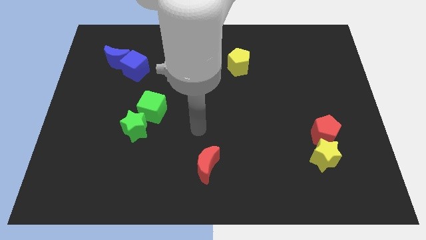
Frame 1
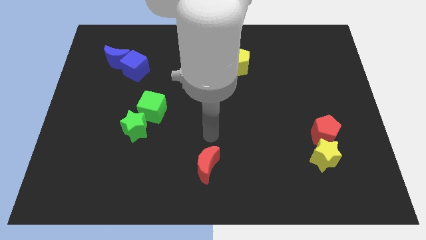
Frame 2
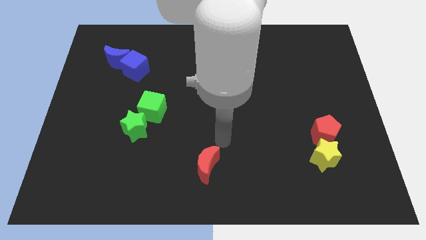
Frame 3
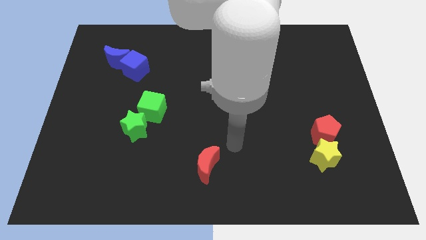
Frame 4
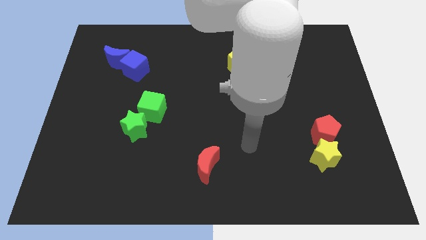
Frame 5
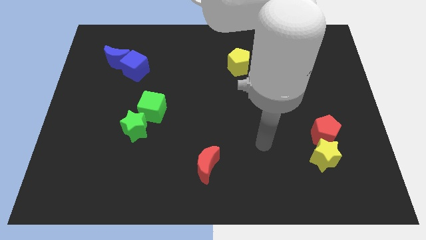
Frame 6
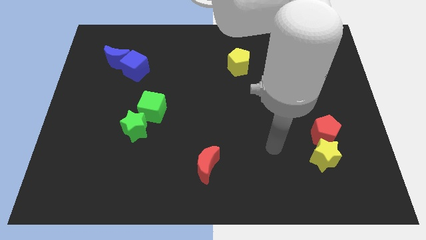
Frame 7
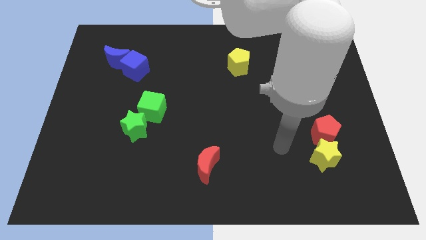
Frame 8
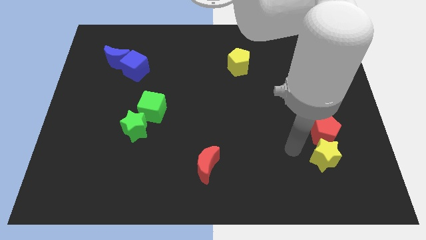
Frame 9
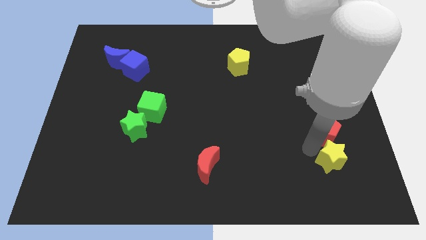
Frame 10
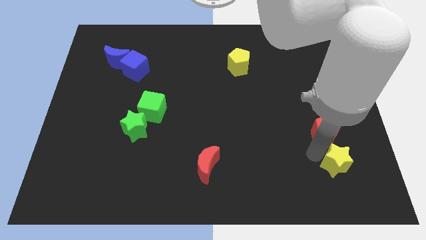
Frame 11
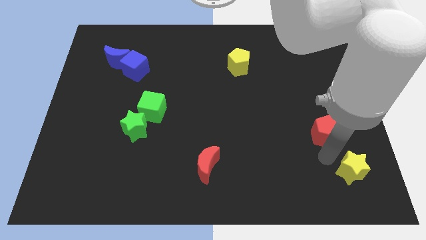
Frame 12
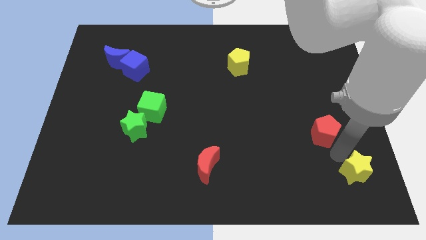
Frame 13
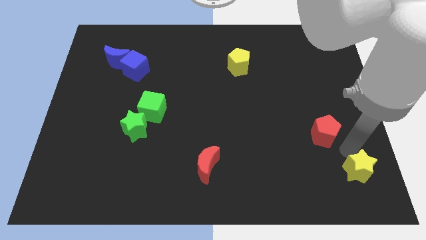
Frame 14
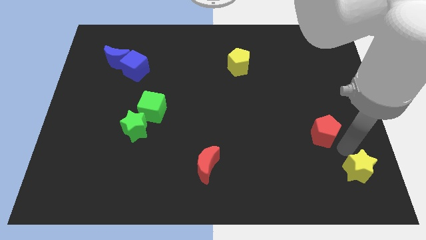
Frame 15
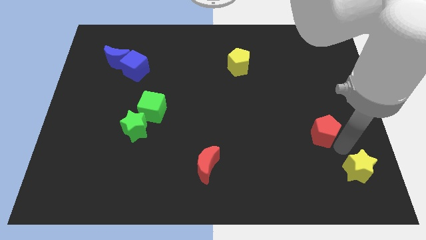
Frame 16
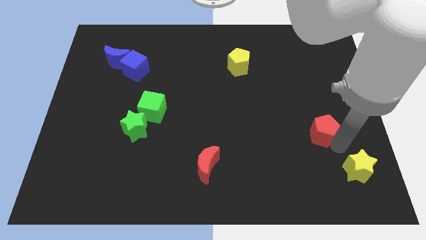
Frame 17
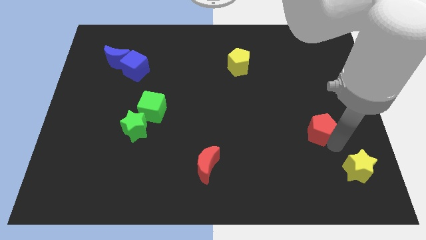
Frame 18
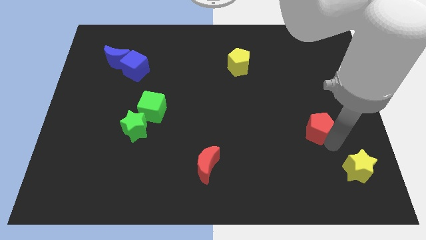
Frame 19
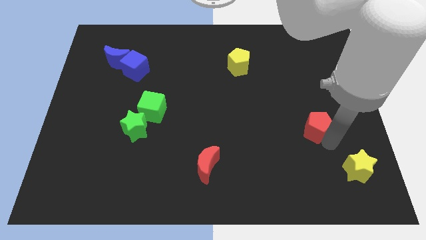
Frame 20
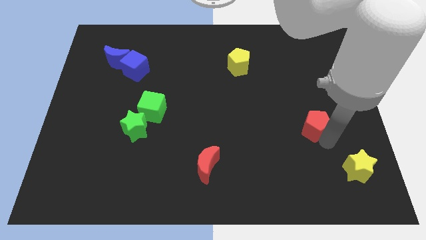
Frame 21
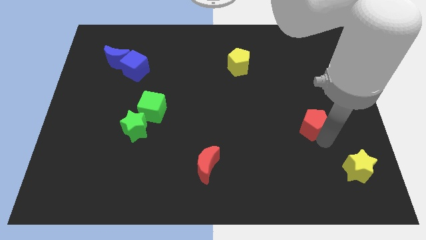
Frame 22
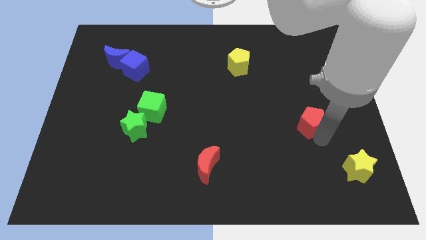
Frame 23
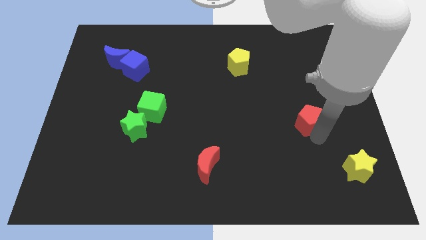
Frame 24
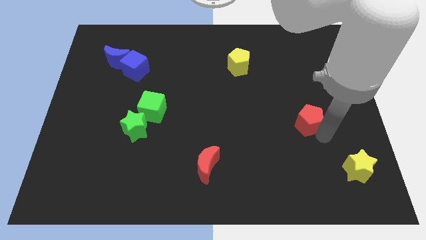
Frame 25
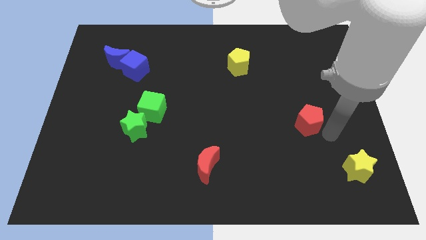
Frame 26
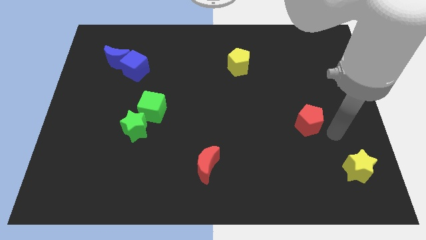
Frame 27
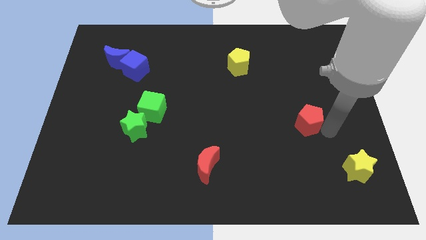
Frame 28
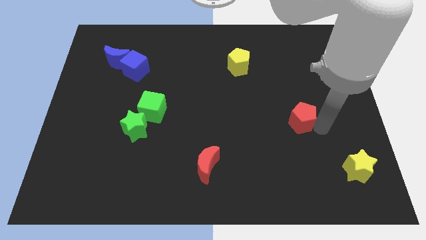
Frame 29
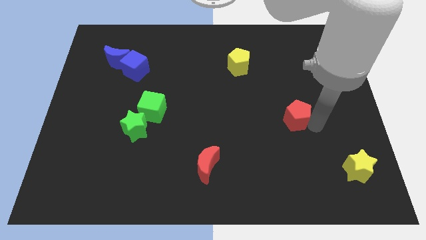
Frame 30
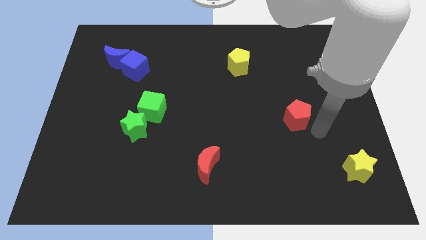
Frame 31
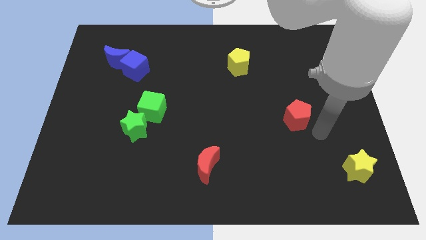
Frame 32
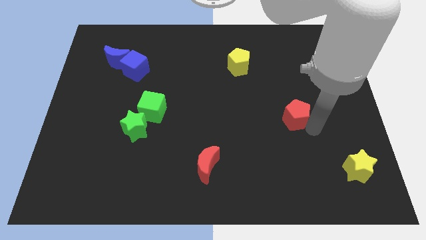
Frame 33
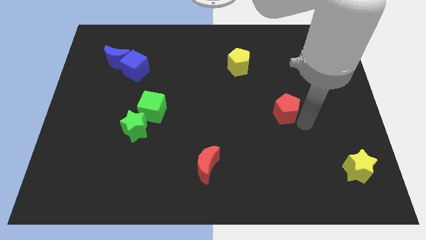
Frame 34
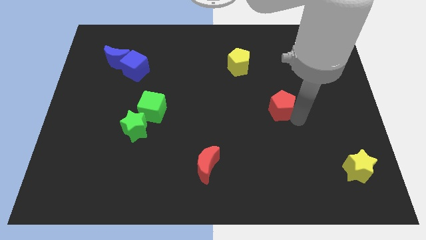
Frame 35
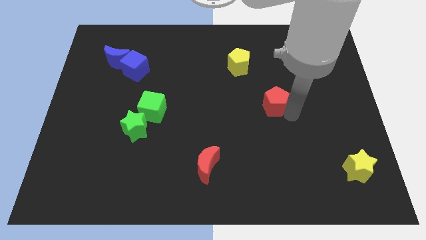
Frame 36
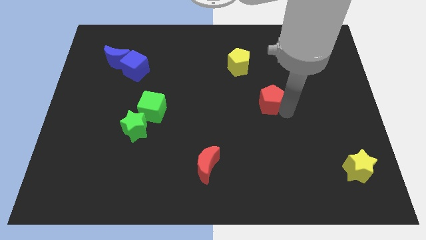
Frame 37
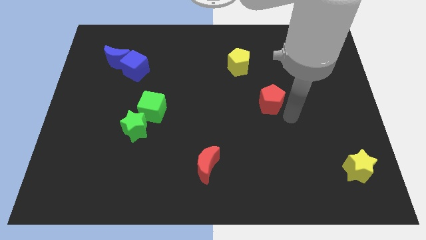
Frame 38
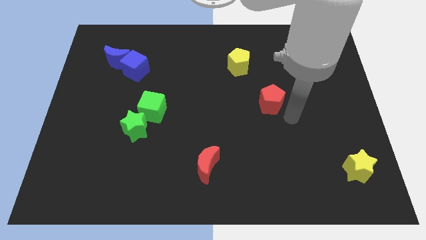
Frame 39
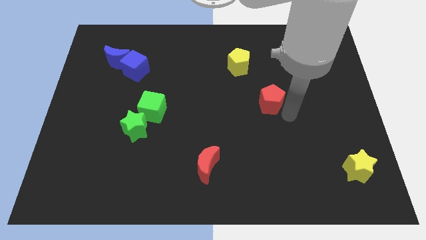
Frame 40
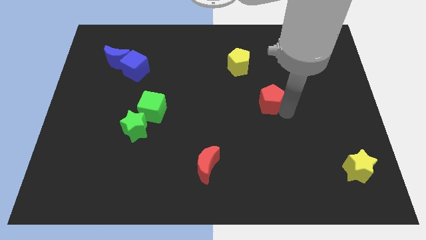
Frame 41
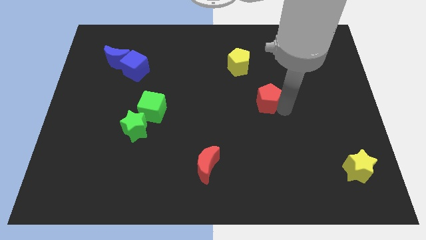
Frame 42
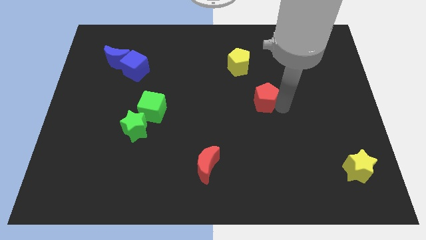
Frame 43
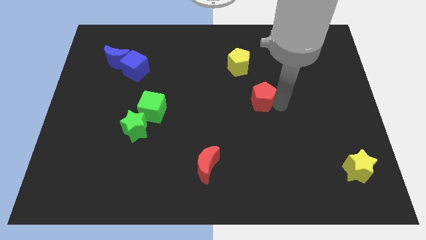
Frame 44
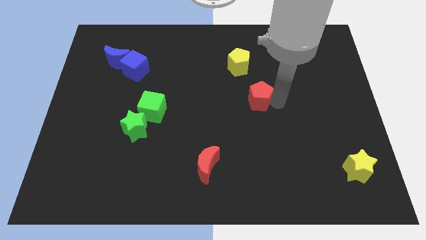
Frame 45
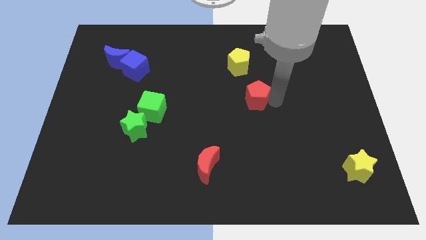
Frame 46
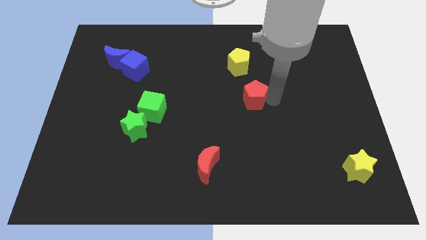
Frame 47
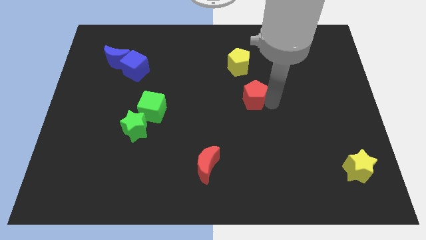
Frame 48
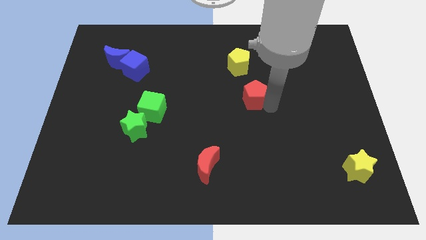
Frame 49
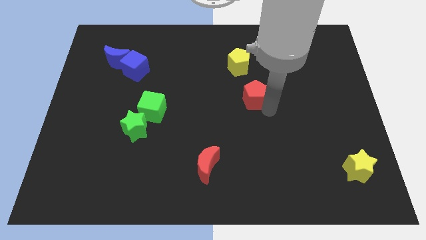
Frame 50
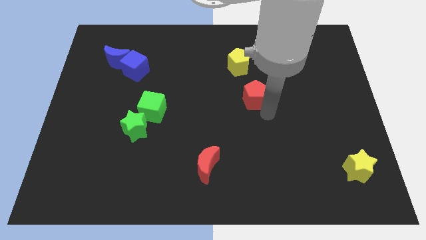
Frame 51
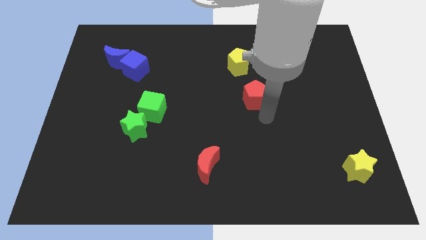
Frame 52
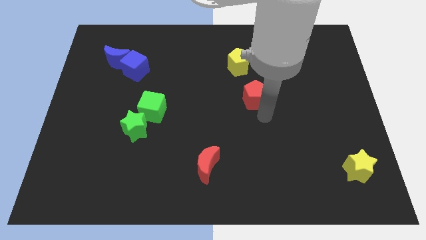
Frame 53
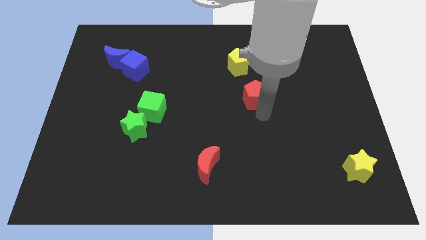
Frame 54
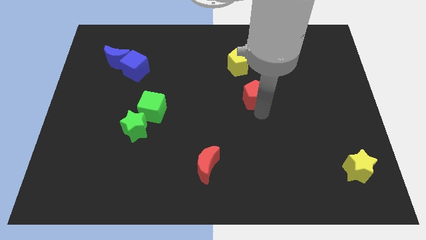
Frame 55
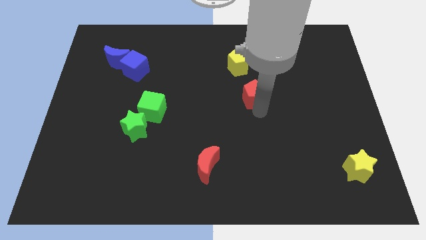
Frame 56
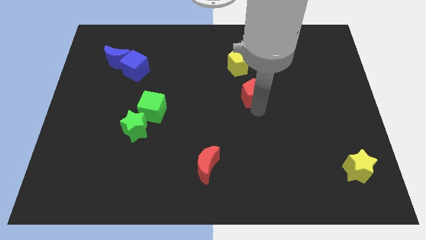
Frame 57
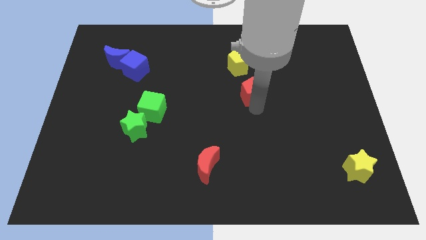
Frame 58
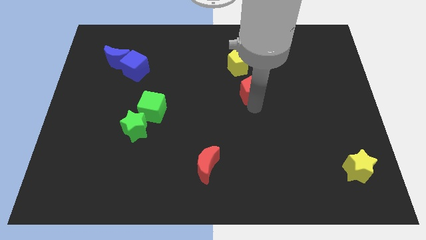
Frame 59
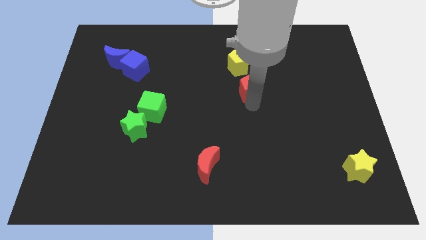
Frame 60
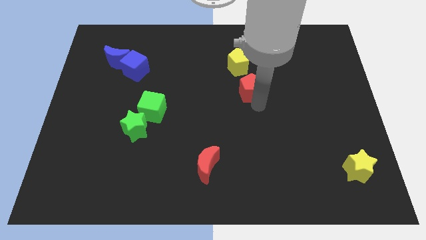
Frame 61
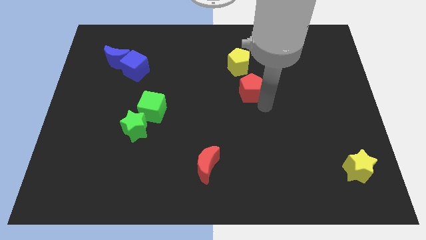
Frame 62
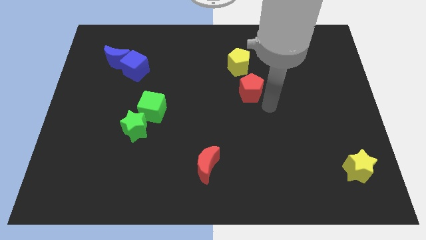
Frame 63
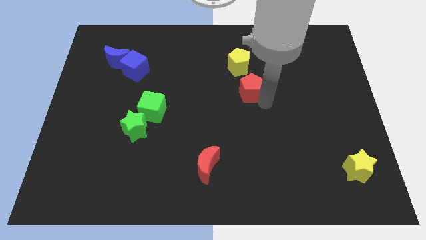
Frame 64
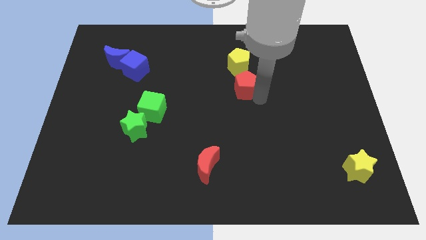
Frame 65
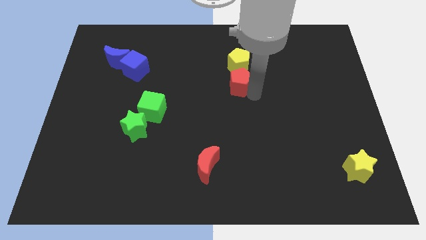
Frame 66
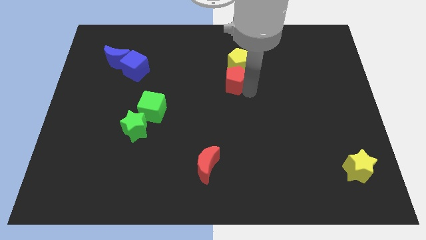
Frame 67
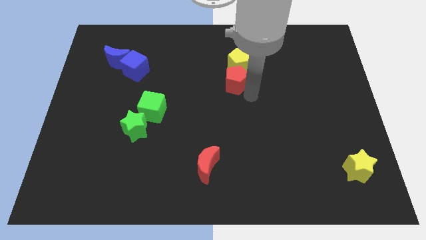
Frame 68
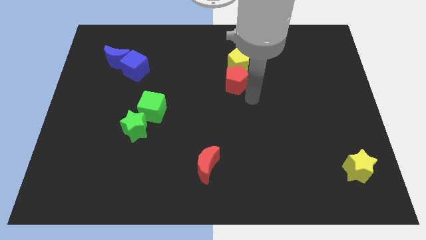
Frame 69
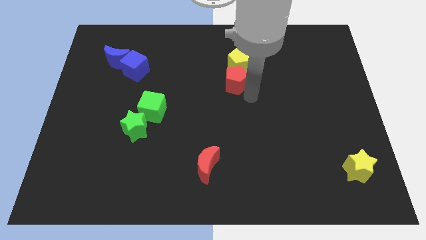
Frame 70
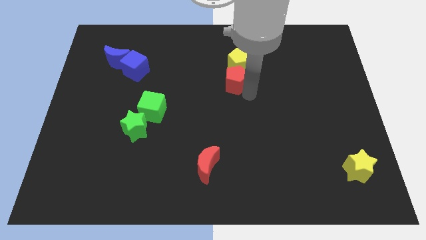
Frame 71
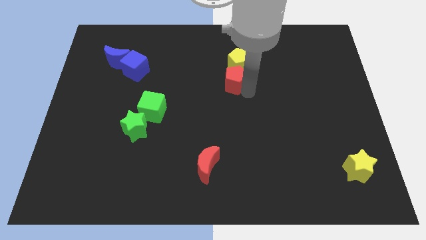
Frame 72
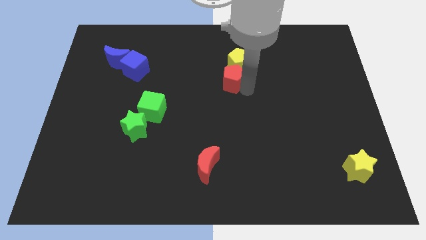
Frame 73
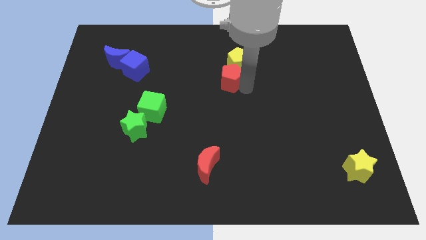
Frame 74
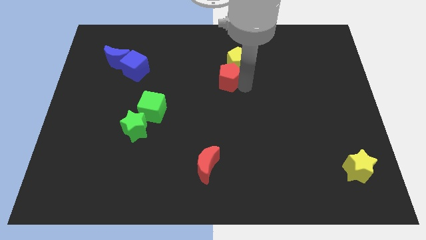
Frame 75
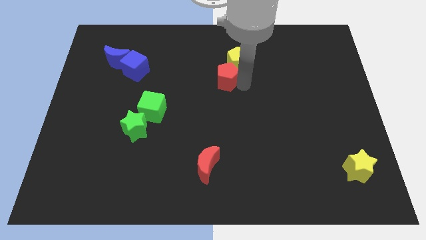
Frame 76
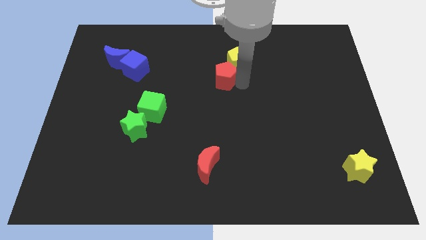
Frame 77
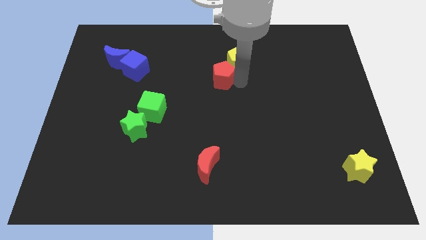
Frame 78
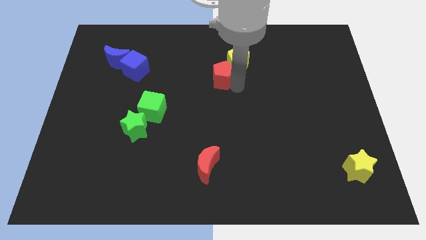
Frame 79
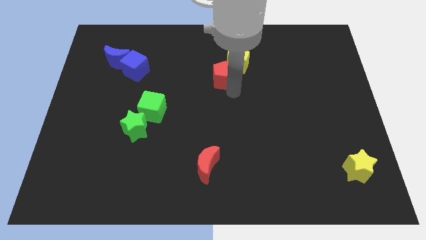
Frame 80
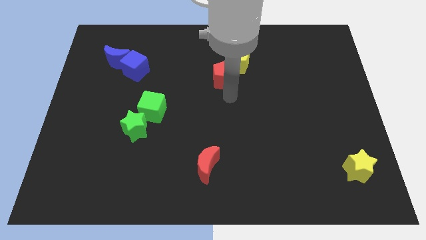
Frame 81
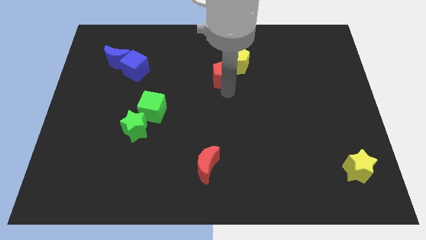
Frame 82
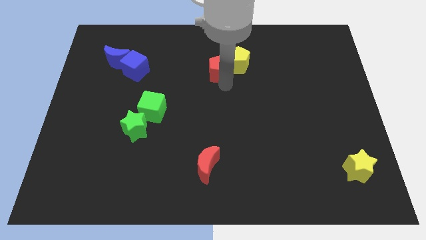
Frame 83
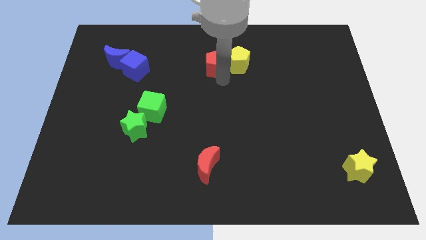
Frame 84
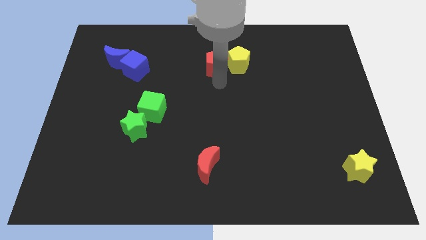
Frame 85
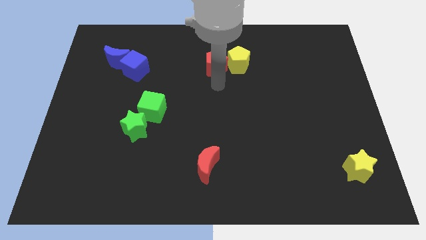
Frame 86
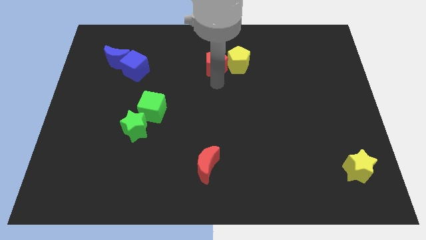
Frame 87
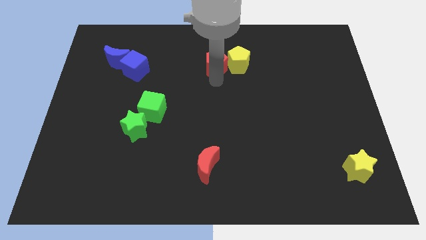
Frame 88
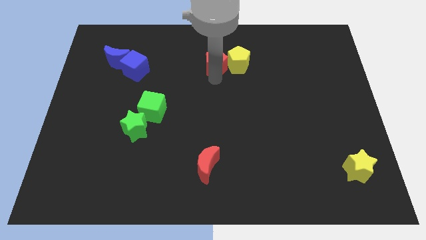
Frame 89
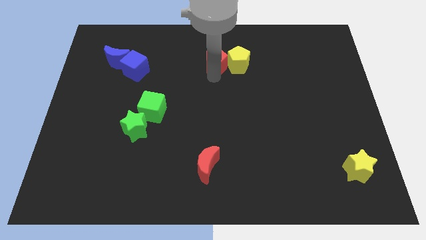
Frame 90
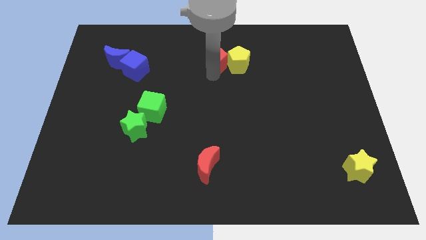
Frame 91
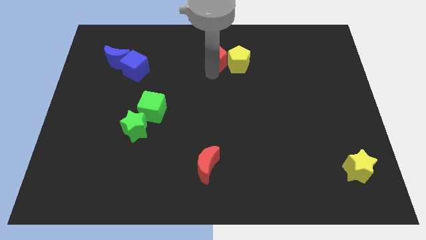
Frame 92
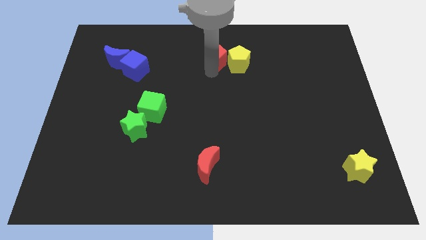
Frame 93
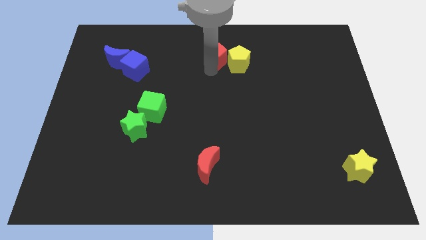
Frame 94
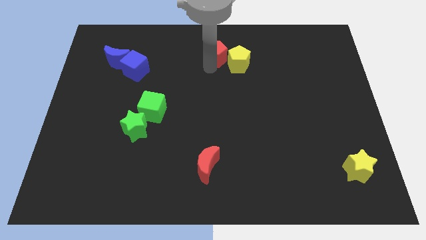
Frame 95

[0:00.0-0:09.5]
move the red pentagon to the top
